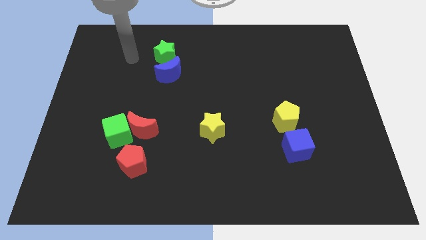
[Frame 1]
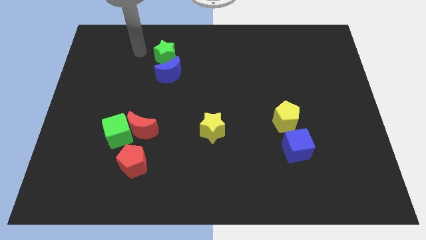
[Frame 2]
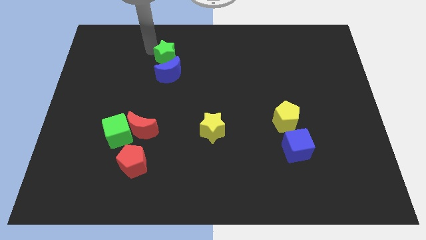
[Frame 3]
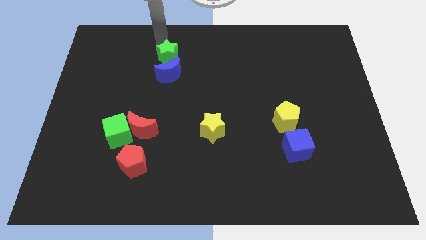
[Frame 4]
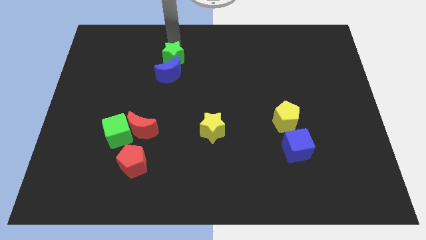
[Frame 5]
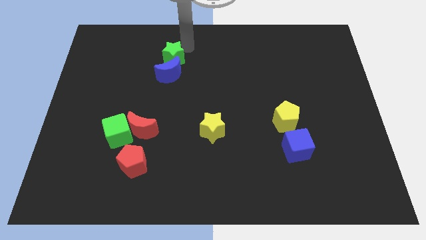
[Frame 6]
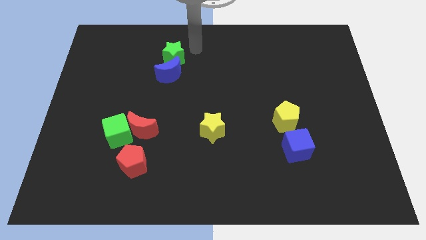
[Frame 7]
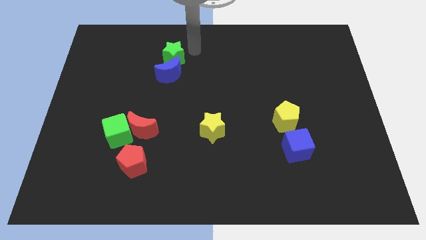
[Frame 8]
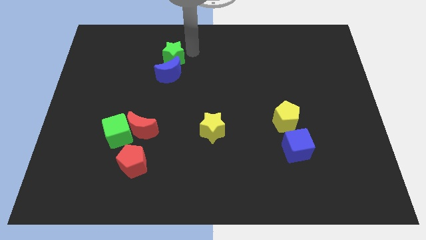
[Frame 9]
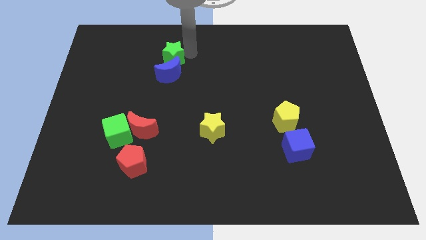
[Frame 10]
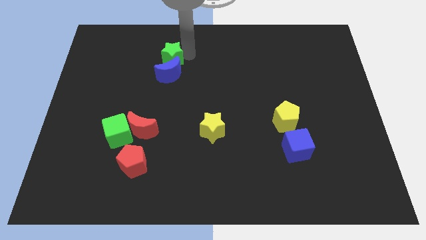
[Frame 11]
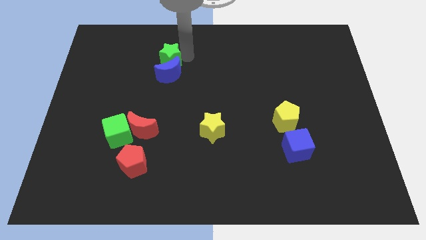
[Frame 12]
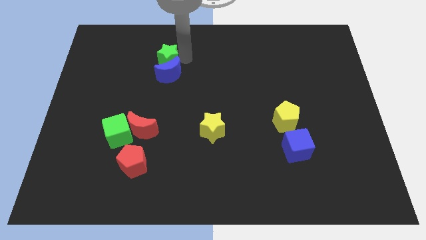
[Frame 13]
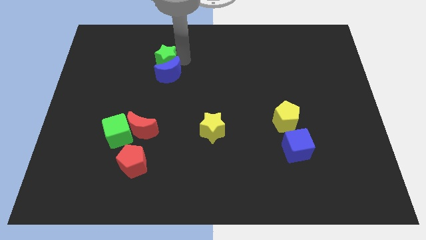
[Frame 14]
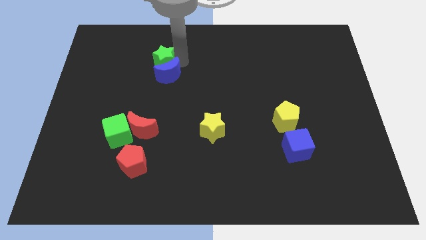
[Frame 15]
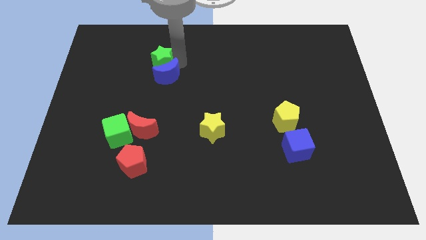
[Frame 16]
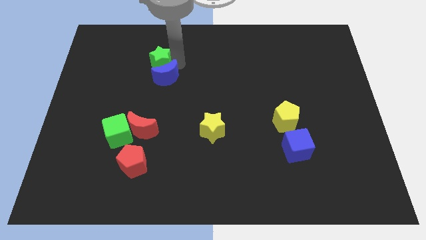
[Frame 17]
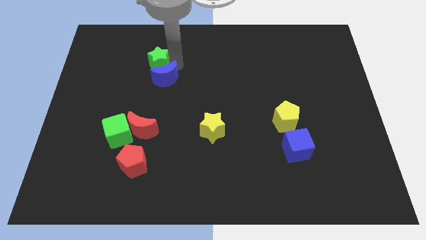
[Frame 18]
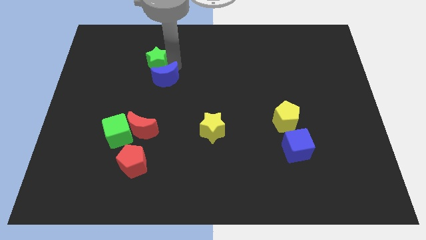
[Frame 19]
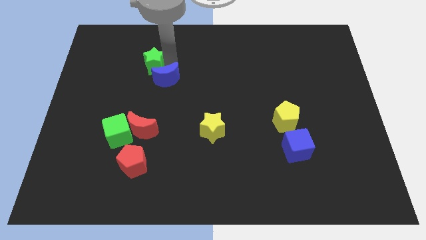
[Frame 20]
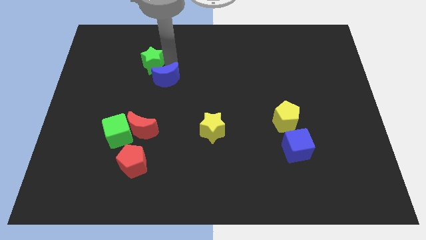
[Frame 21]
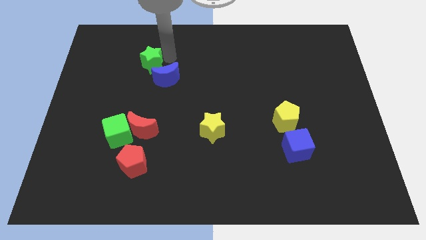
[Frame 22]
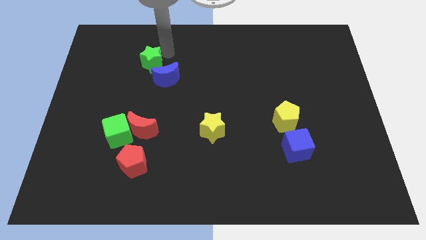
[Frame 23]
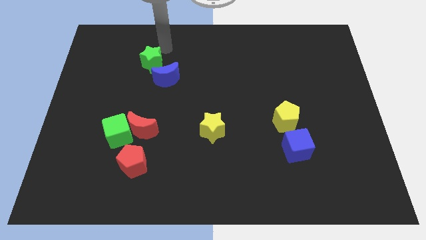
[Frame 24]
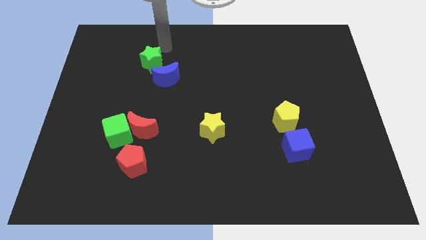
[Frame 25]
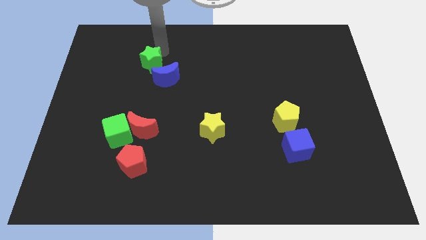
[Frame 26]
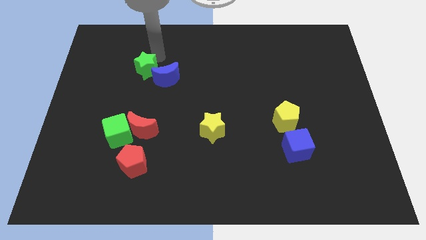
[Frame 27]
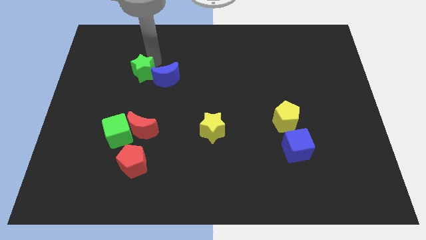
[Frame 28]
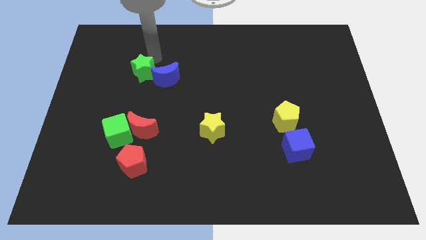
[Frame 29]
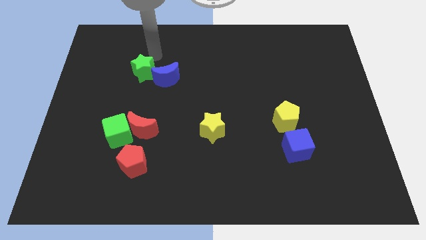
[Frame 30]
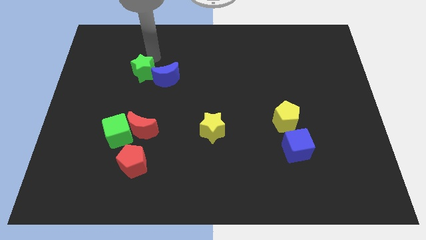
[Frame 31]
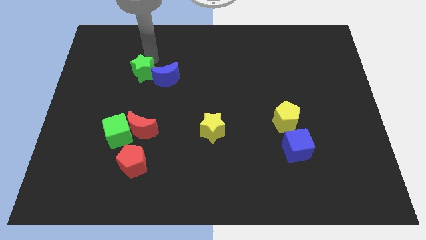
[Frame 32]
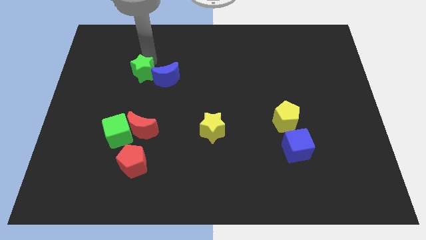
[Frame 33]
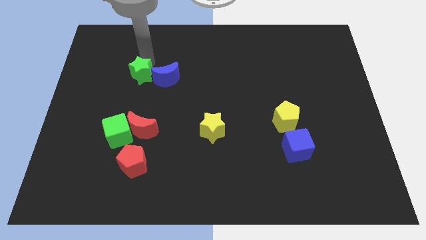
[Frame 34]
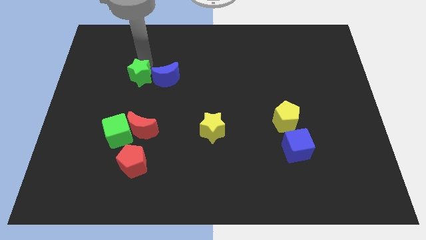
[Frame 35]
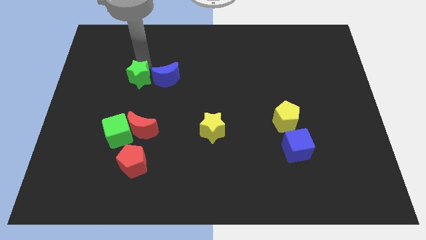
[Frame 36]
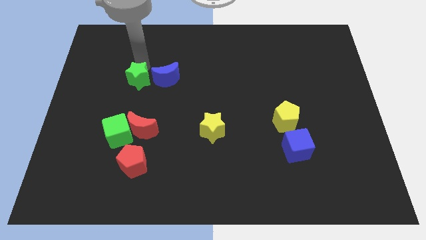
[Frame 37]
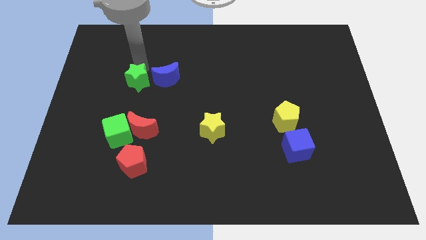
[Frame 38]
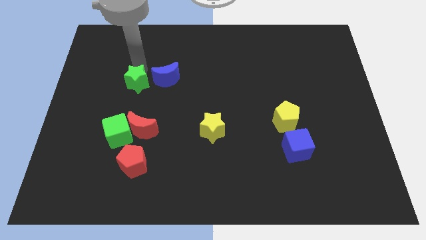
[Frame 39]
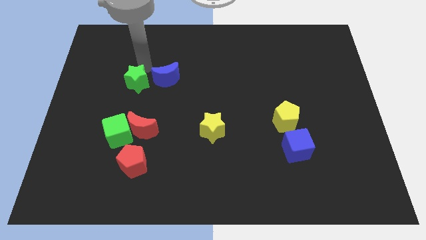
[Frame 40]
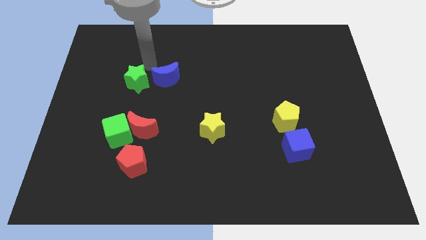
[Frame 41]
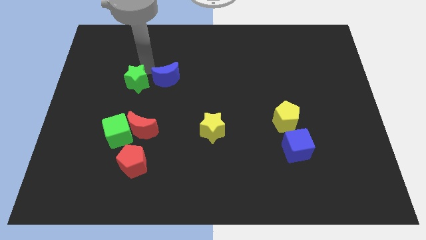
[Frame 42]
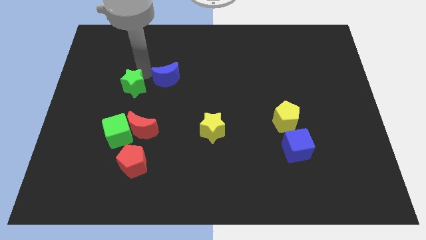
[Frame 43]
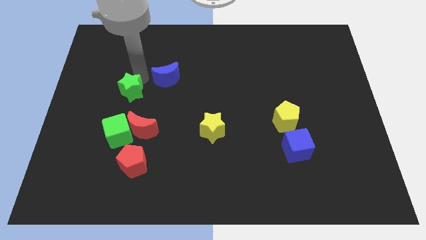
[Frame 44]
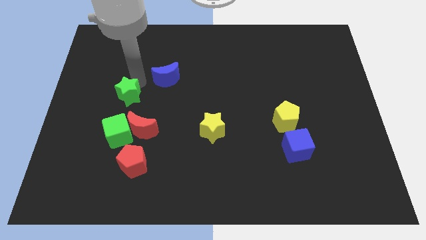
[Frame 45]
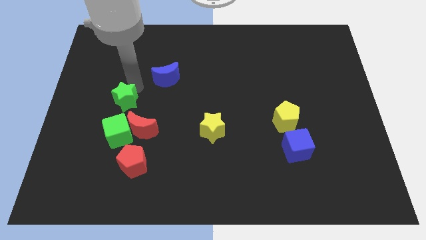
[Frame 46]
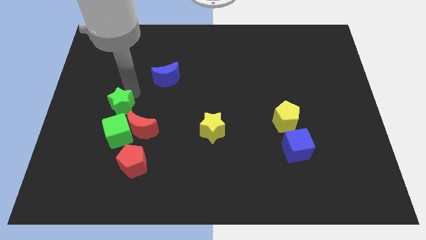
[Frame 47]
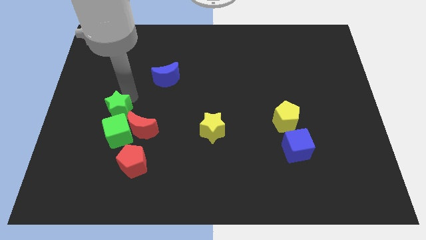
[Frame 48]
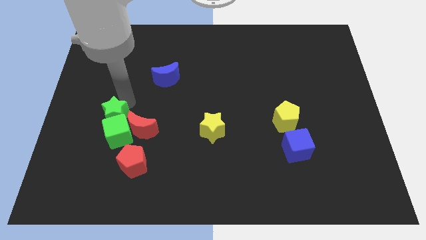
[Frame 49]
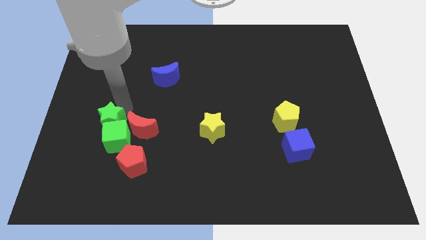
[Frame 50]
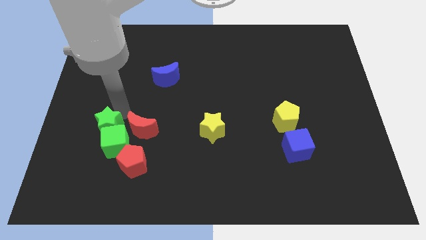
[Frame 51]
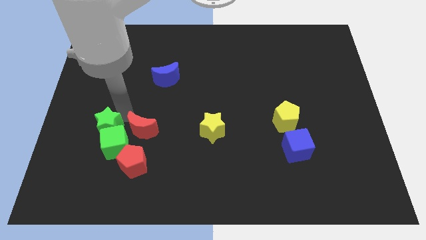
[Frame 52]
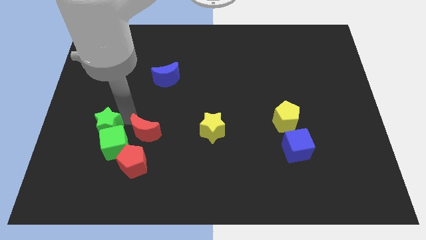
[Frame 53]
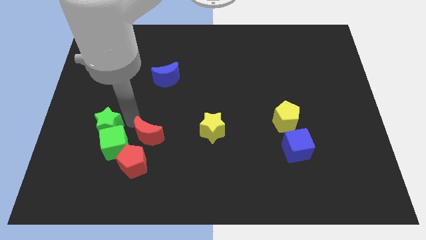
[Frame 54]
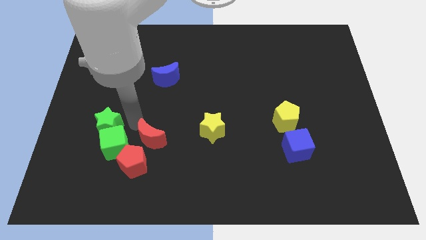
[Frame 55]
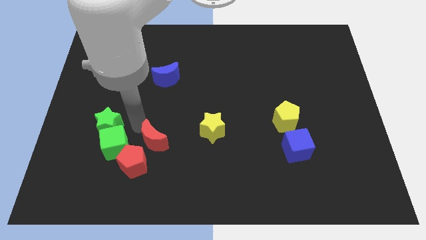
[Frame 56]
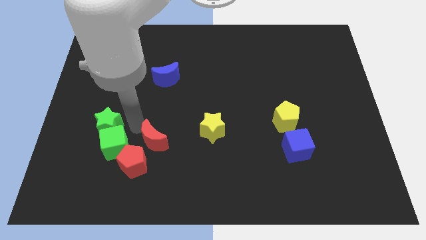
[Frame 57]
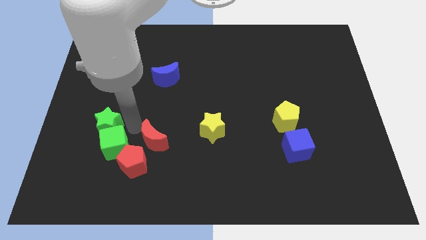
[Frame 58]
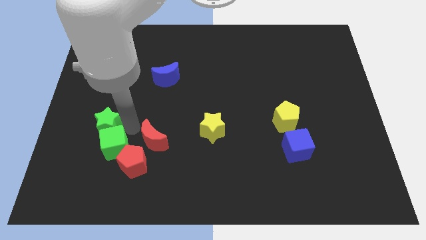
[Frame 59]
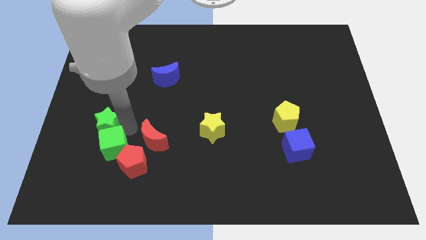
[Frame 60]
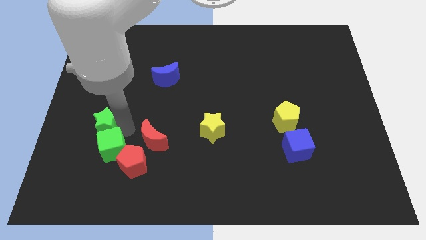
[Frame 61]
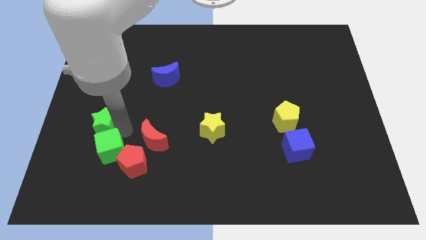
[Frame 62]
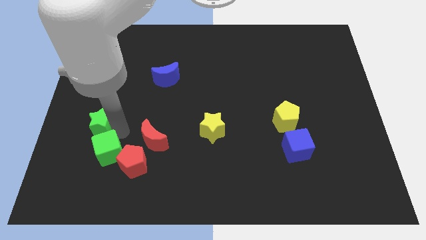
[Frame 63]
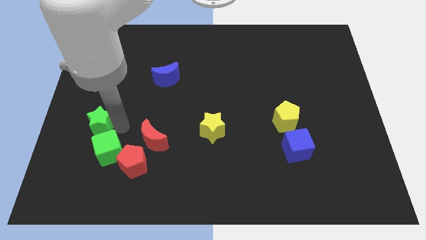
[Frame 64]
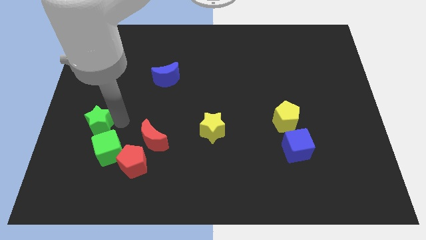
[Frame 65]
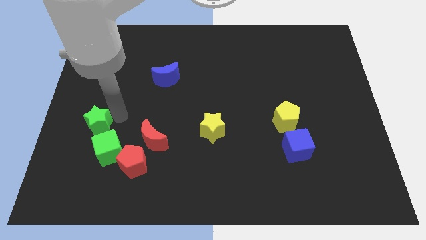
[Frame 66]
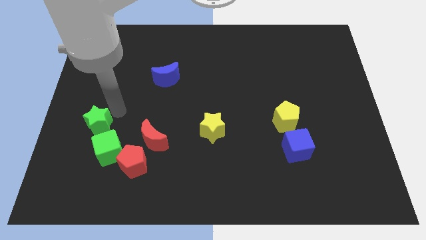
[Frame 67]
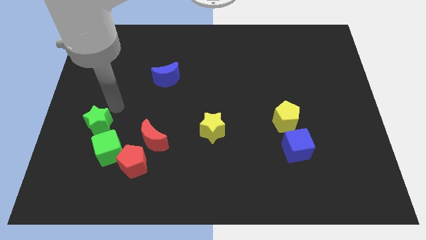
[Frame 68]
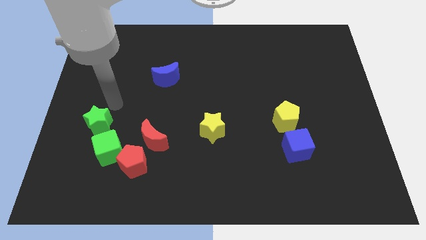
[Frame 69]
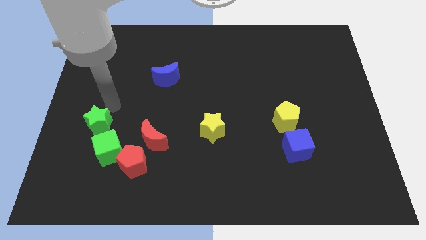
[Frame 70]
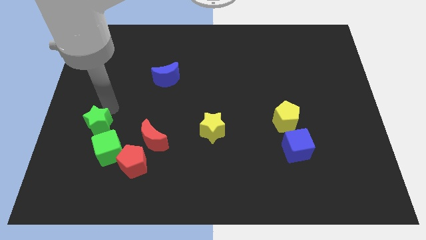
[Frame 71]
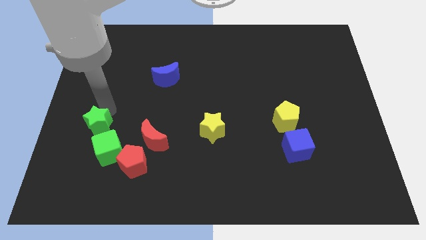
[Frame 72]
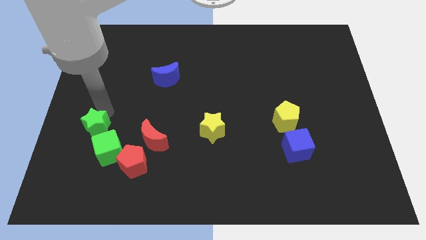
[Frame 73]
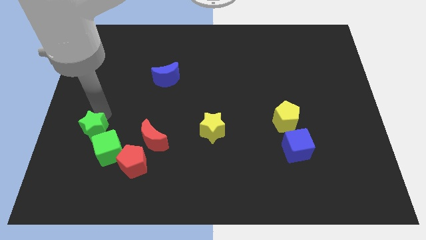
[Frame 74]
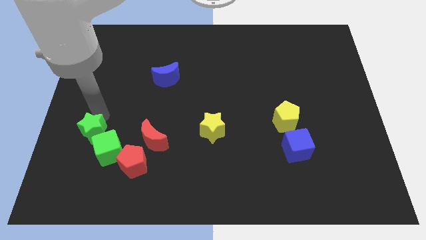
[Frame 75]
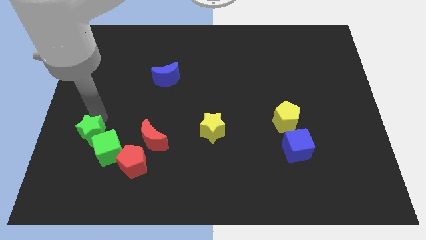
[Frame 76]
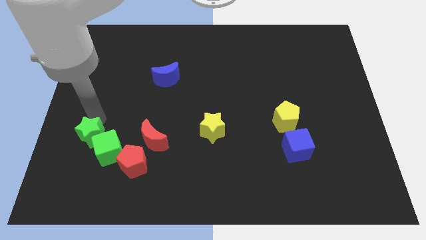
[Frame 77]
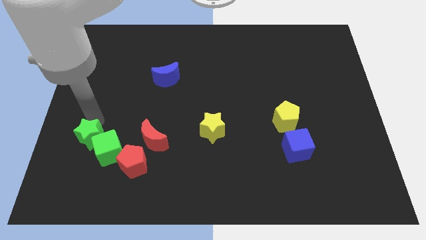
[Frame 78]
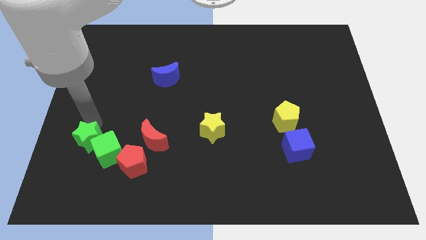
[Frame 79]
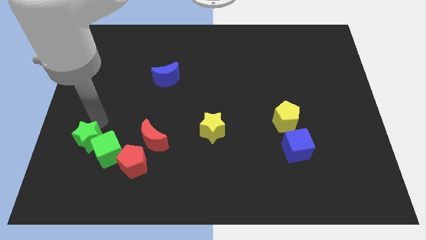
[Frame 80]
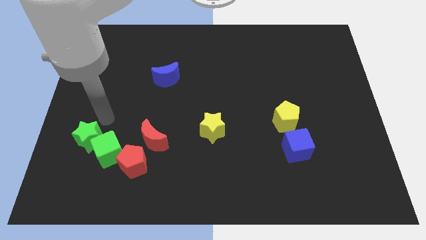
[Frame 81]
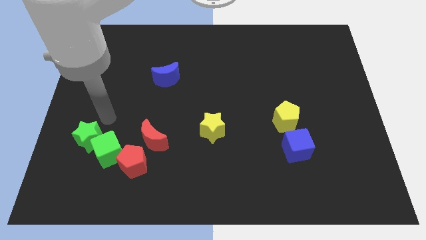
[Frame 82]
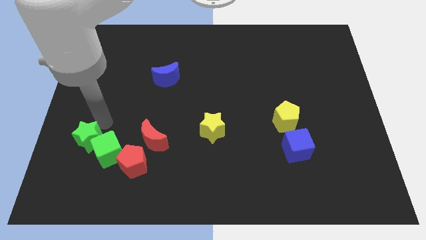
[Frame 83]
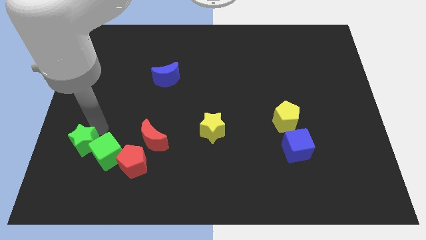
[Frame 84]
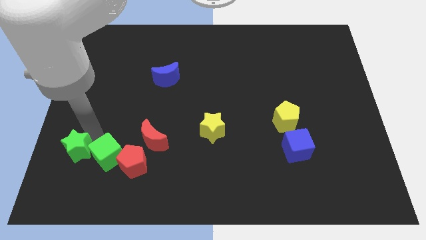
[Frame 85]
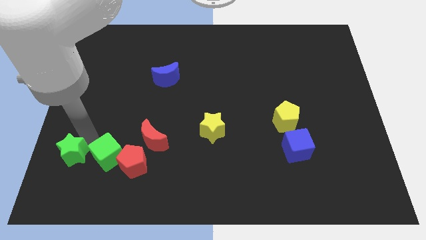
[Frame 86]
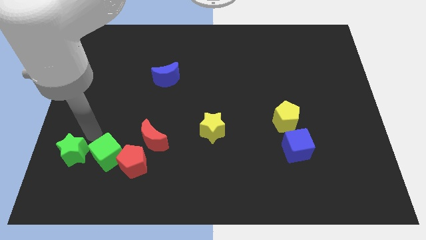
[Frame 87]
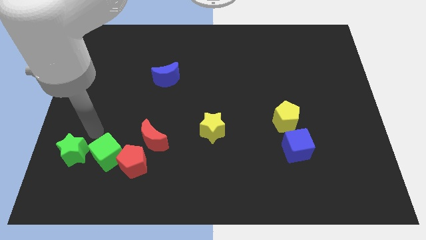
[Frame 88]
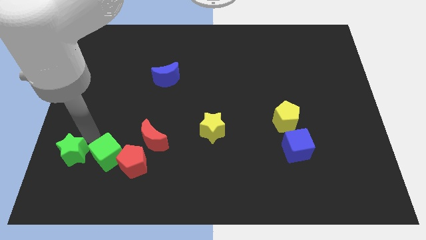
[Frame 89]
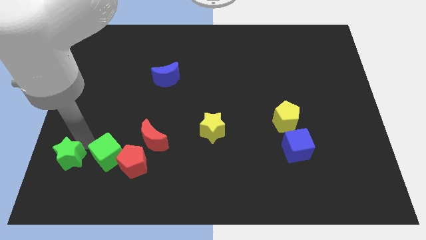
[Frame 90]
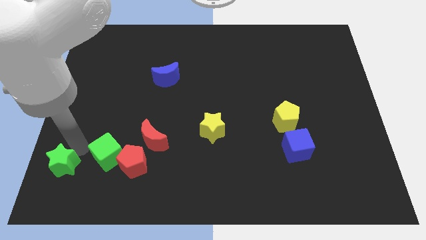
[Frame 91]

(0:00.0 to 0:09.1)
slide the green star to the bottom left
